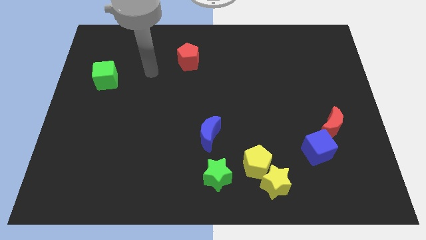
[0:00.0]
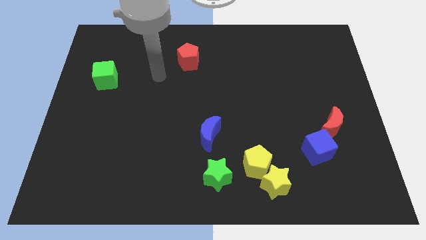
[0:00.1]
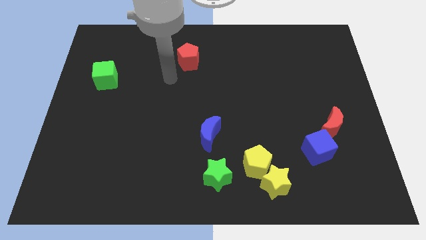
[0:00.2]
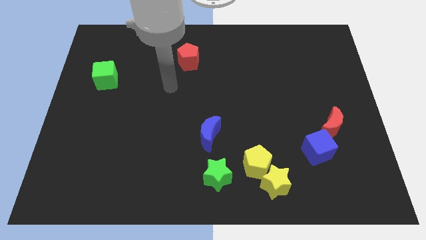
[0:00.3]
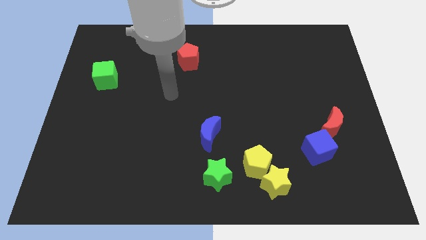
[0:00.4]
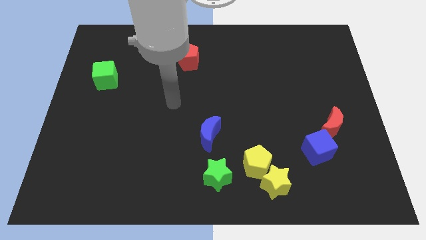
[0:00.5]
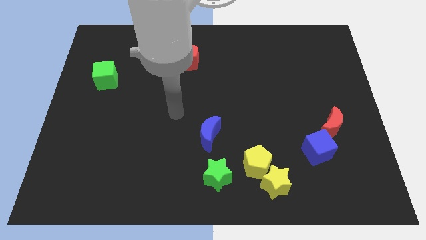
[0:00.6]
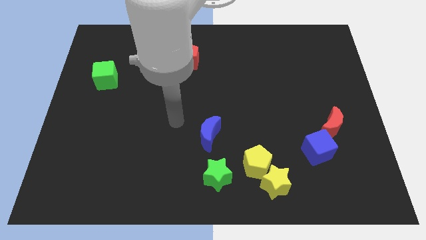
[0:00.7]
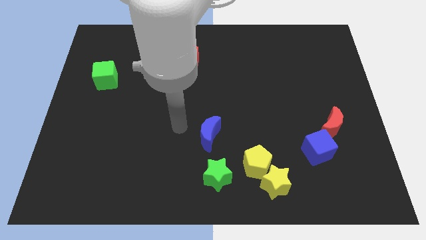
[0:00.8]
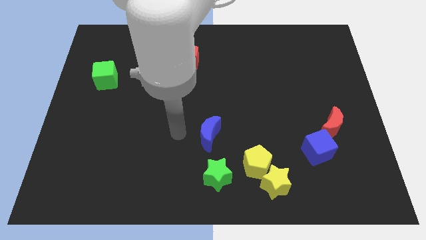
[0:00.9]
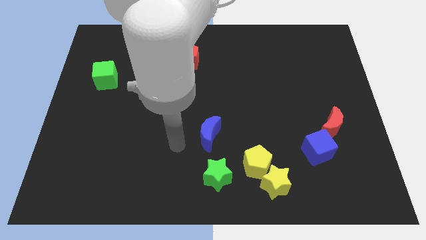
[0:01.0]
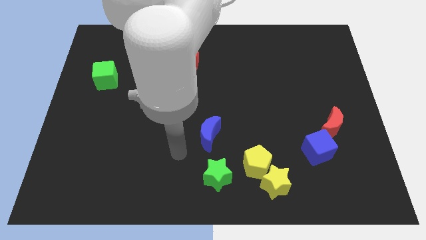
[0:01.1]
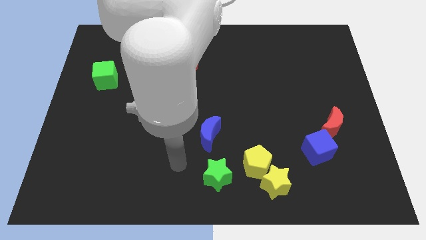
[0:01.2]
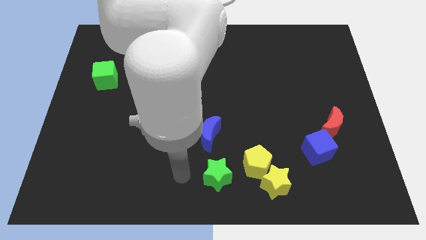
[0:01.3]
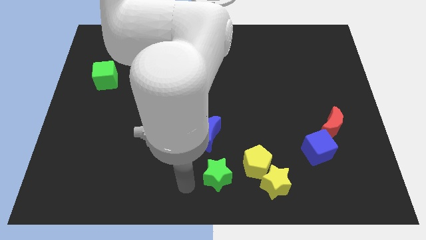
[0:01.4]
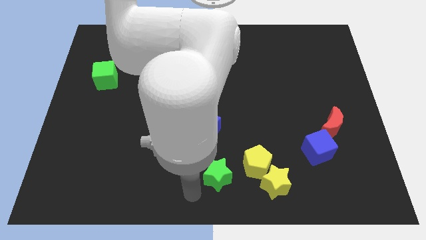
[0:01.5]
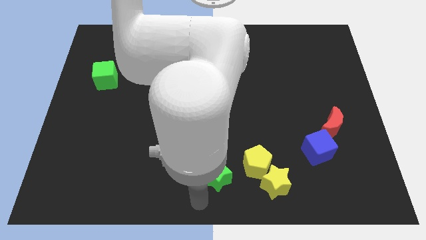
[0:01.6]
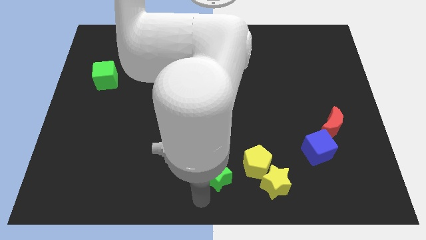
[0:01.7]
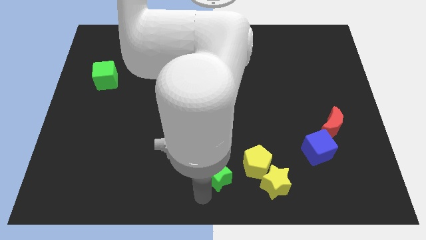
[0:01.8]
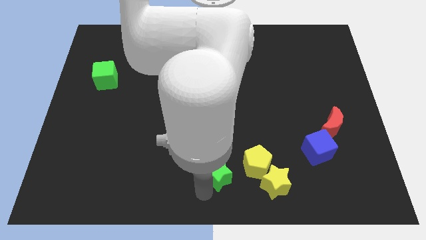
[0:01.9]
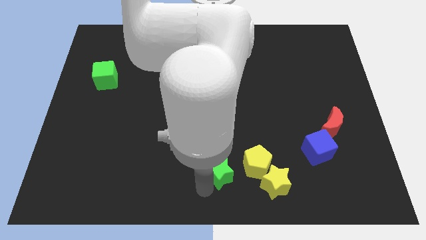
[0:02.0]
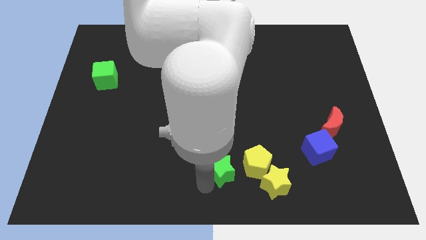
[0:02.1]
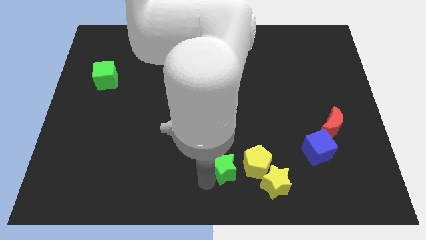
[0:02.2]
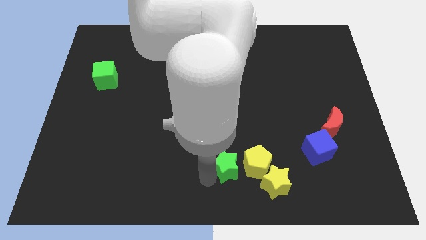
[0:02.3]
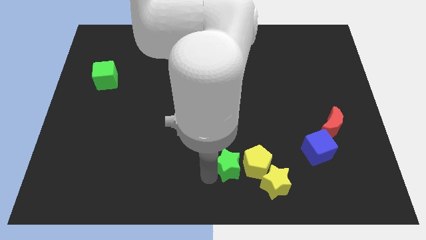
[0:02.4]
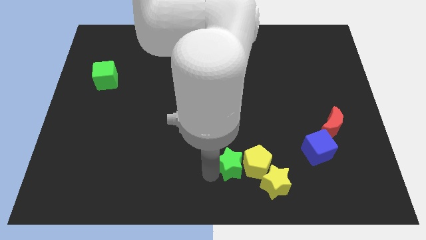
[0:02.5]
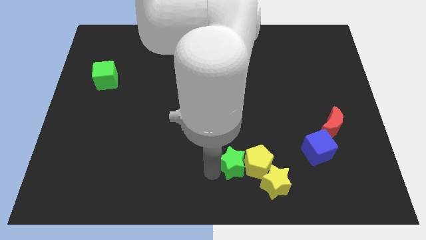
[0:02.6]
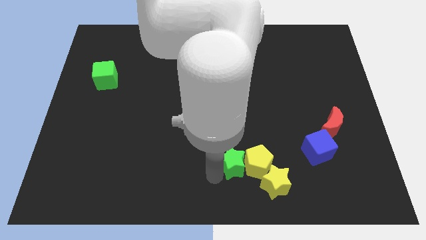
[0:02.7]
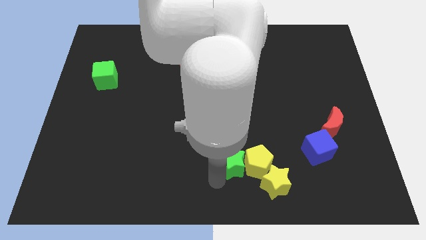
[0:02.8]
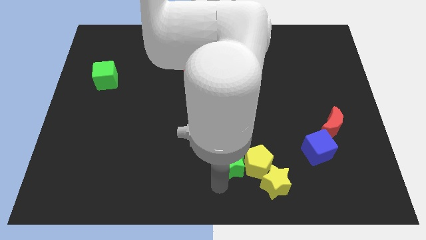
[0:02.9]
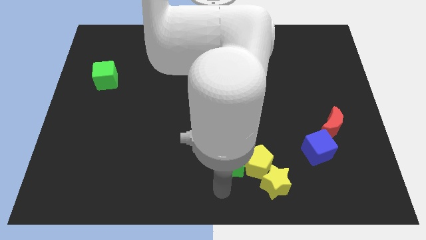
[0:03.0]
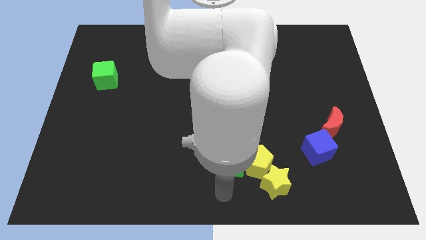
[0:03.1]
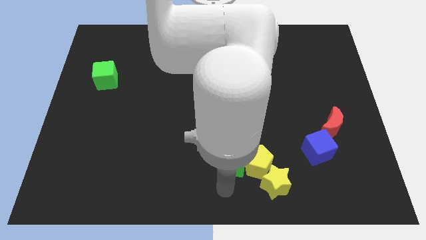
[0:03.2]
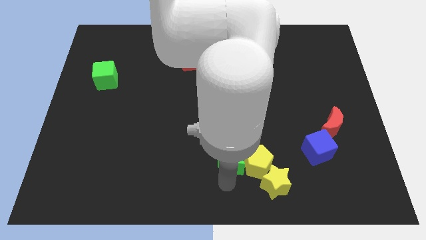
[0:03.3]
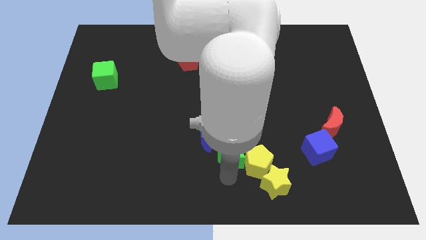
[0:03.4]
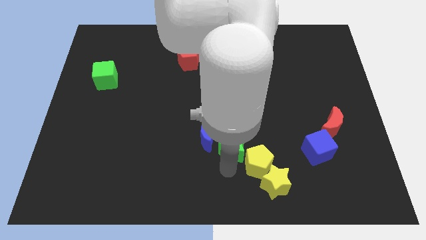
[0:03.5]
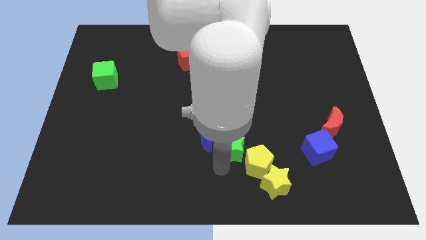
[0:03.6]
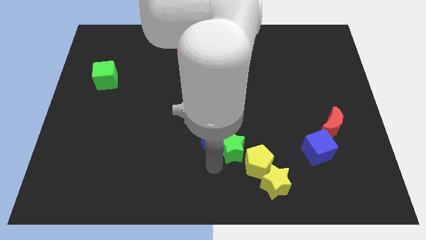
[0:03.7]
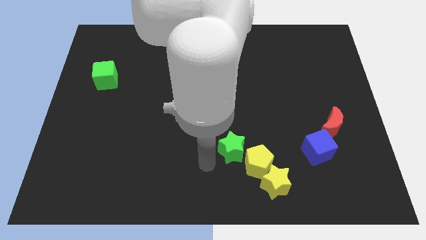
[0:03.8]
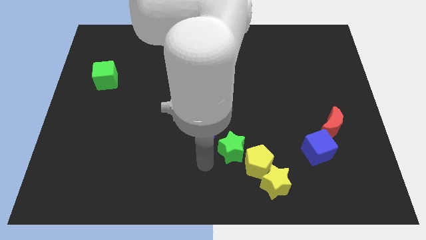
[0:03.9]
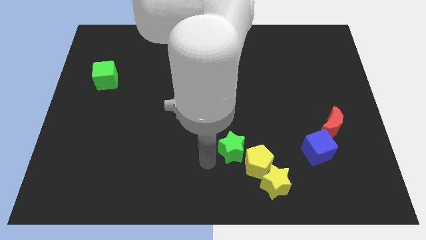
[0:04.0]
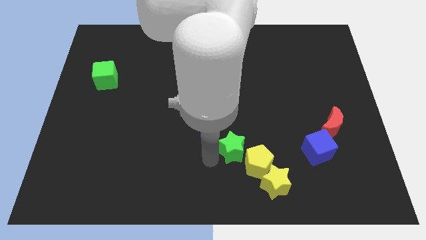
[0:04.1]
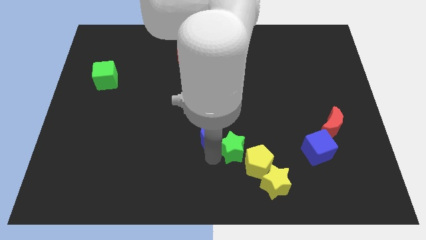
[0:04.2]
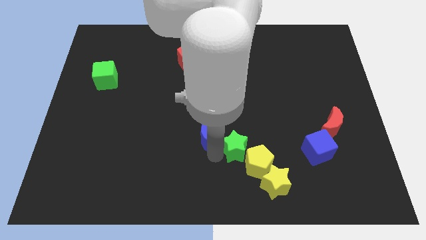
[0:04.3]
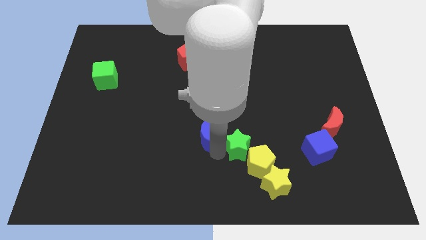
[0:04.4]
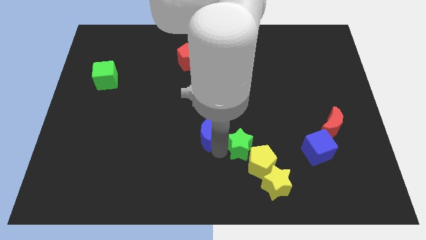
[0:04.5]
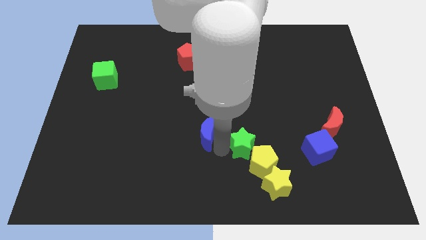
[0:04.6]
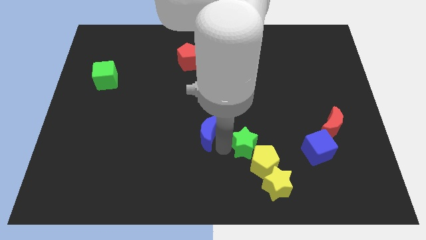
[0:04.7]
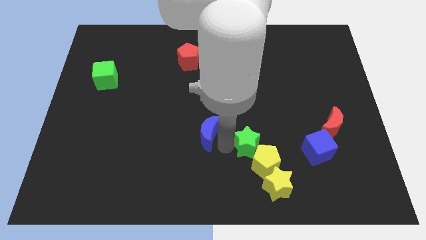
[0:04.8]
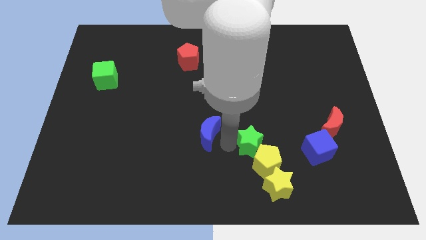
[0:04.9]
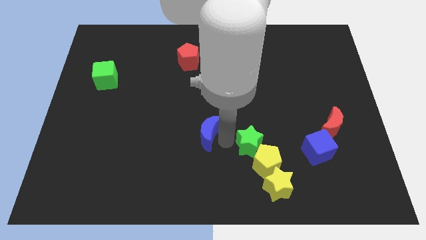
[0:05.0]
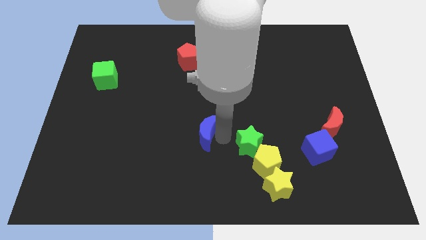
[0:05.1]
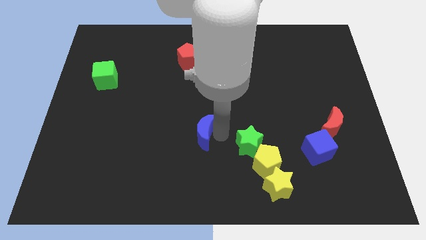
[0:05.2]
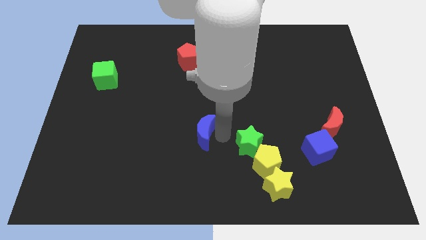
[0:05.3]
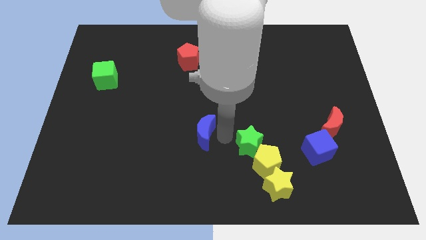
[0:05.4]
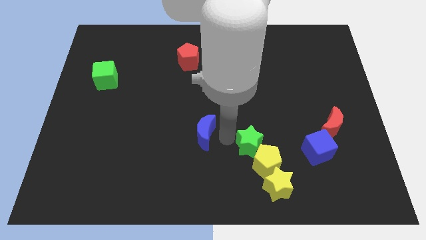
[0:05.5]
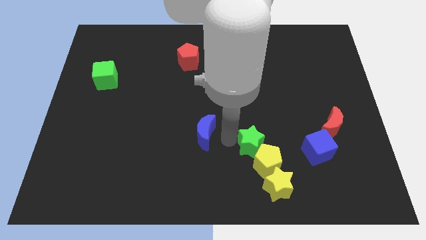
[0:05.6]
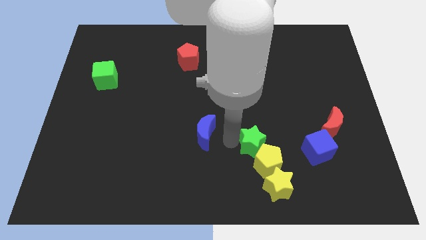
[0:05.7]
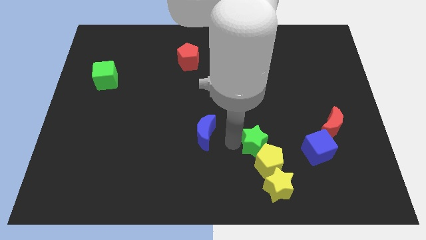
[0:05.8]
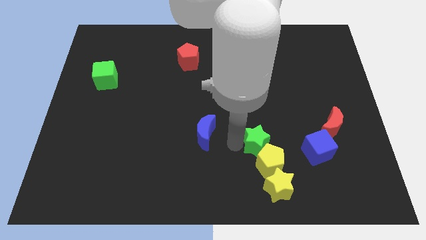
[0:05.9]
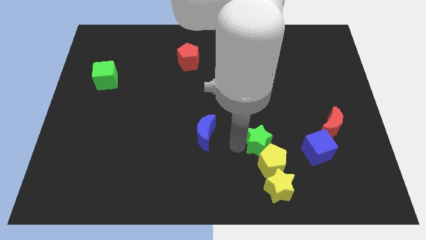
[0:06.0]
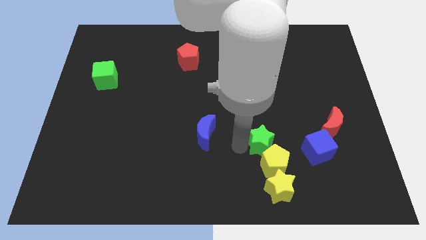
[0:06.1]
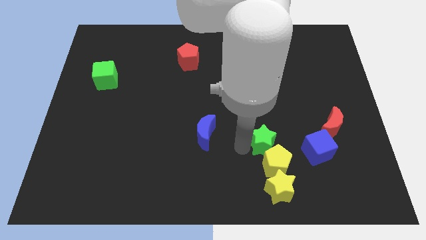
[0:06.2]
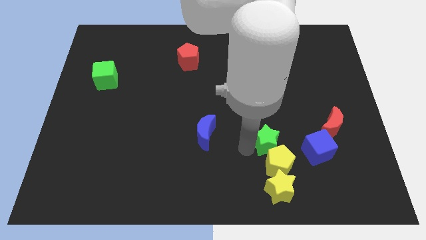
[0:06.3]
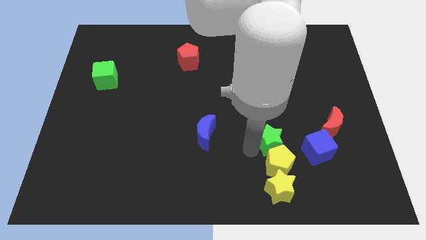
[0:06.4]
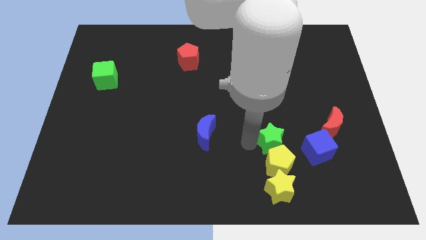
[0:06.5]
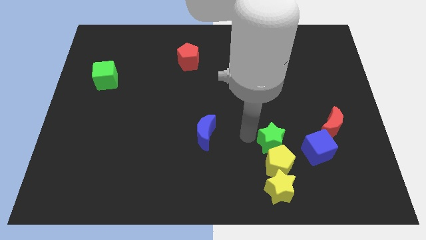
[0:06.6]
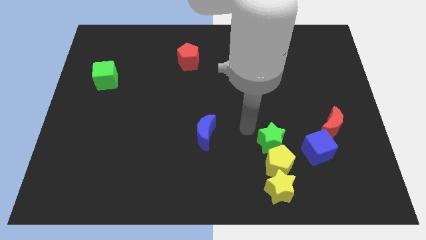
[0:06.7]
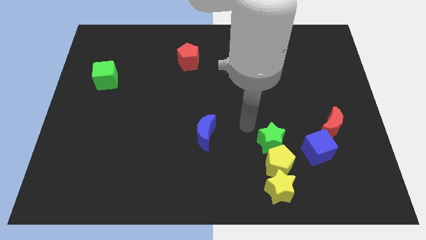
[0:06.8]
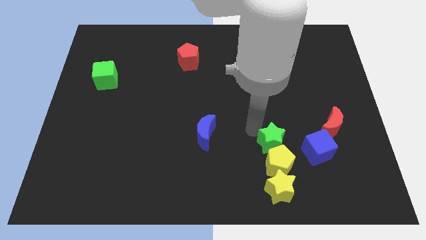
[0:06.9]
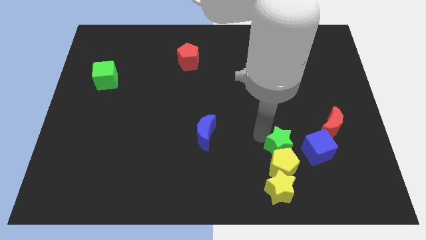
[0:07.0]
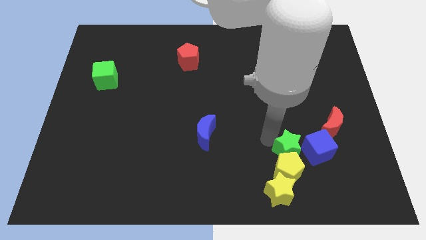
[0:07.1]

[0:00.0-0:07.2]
put the green star to the top right of the yellow star

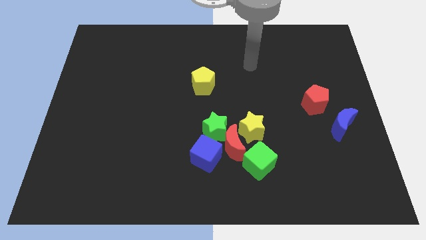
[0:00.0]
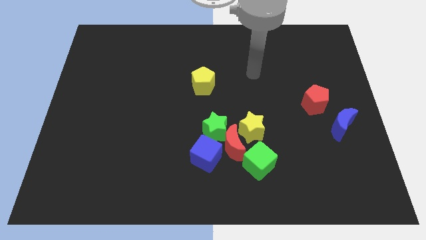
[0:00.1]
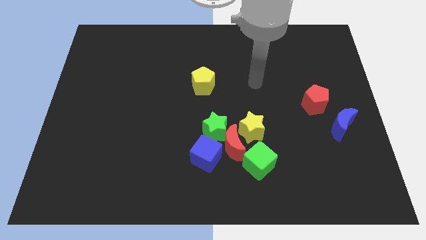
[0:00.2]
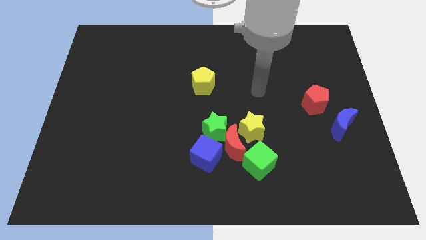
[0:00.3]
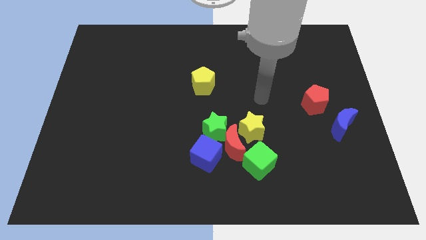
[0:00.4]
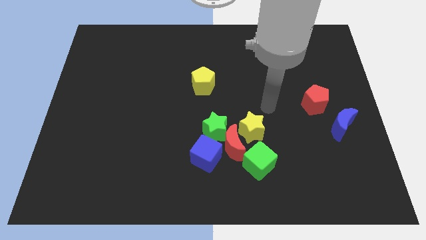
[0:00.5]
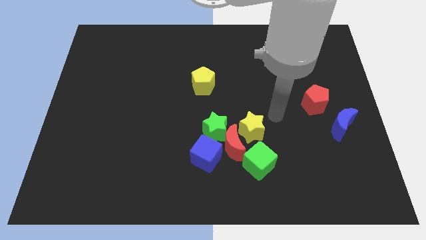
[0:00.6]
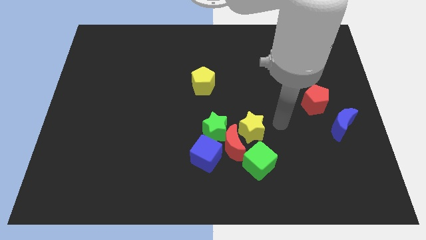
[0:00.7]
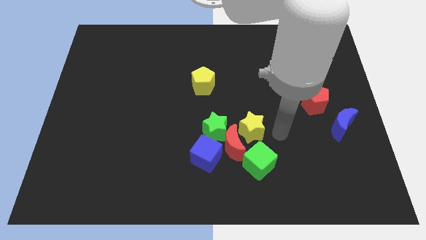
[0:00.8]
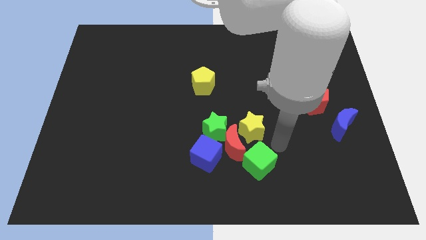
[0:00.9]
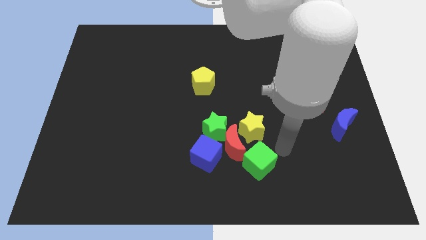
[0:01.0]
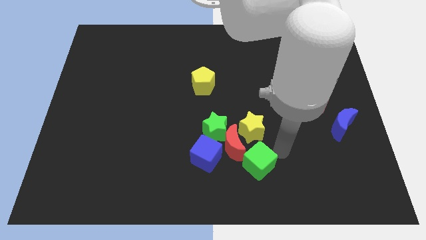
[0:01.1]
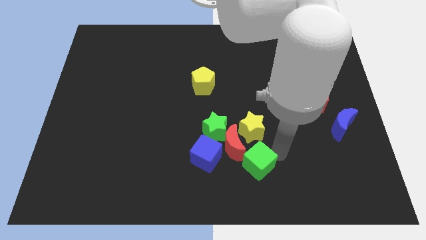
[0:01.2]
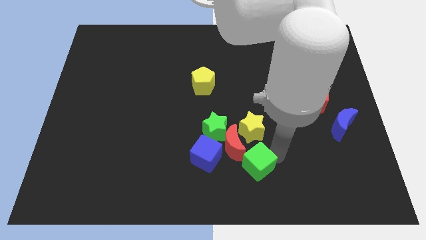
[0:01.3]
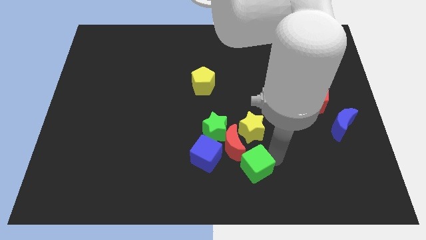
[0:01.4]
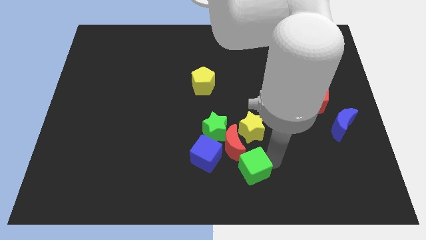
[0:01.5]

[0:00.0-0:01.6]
slide the green cube diagonally down and to the right of the blue cube
